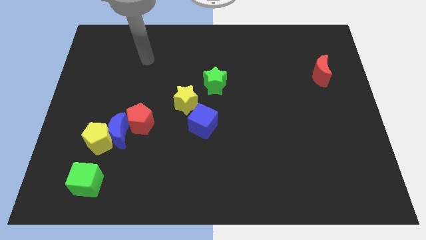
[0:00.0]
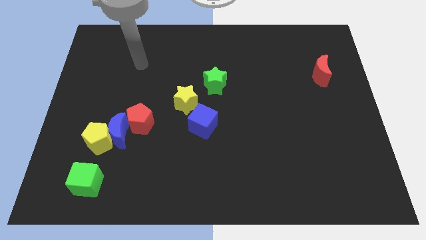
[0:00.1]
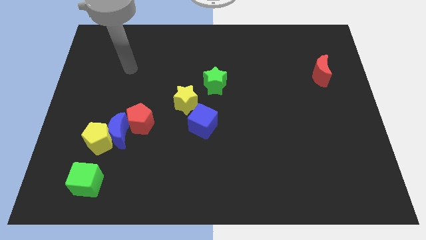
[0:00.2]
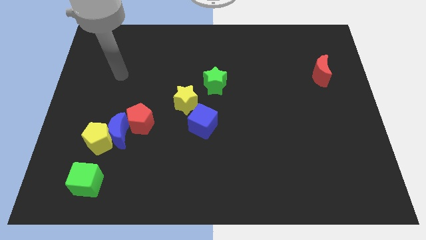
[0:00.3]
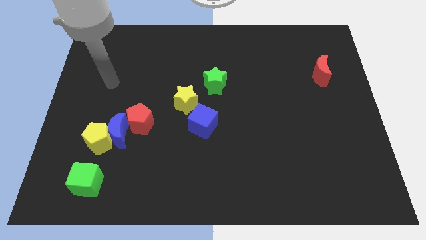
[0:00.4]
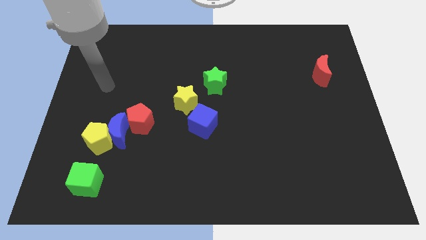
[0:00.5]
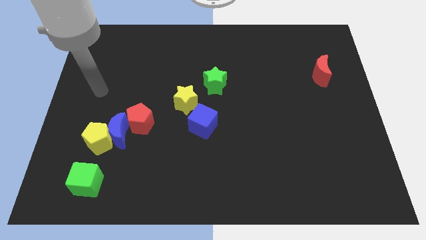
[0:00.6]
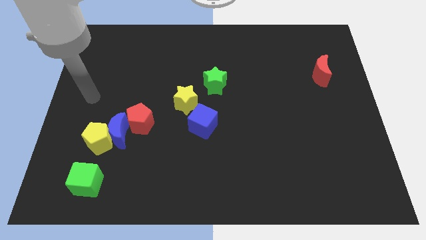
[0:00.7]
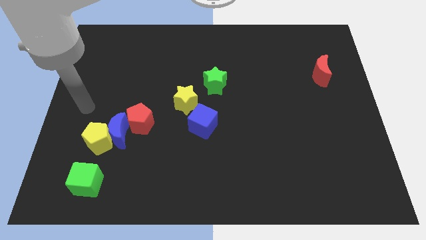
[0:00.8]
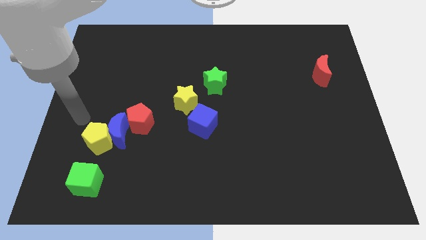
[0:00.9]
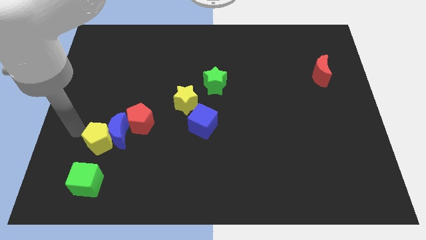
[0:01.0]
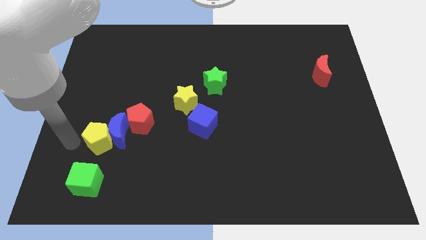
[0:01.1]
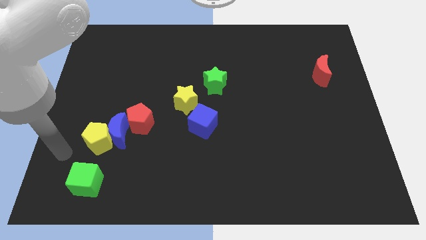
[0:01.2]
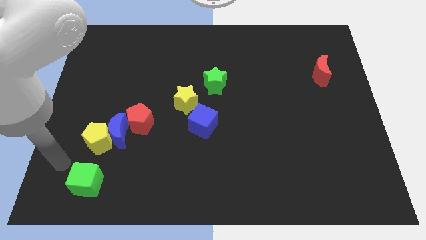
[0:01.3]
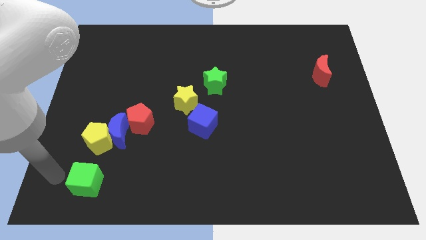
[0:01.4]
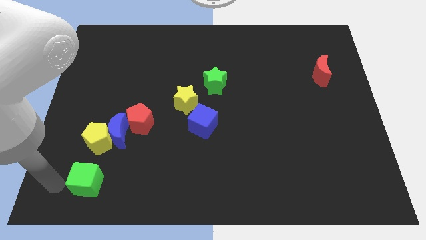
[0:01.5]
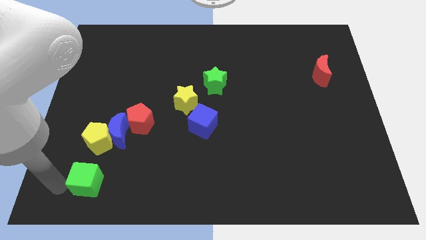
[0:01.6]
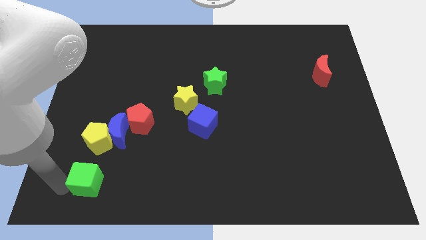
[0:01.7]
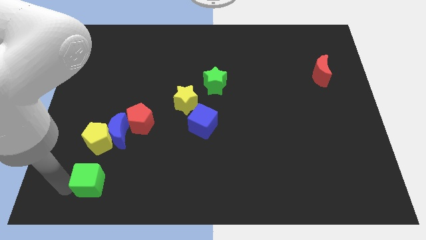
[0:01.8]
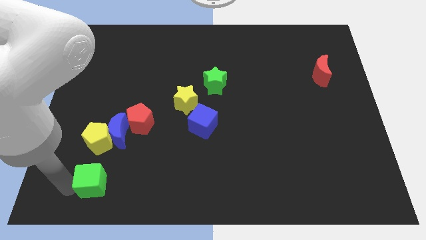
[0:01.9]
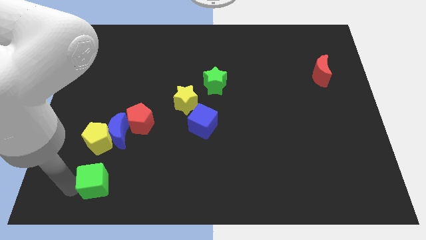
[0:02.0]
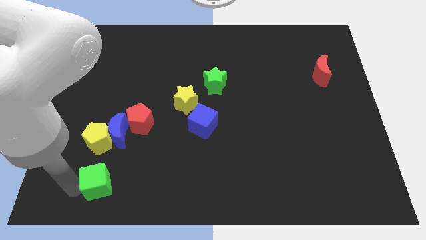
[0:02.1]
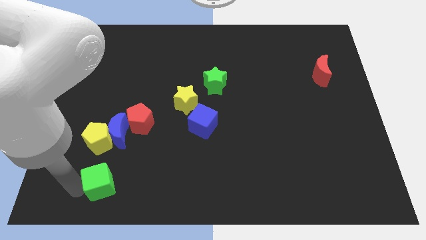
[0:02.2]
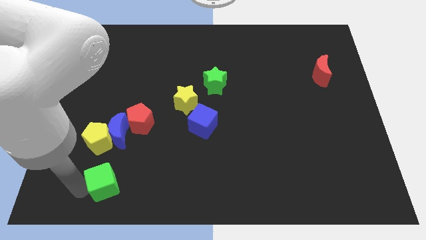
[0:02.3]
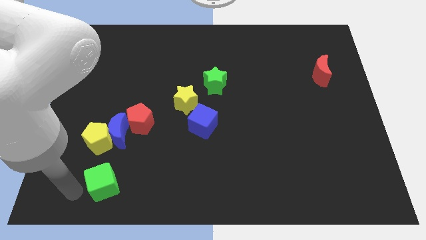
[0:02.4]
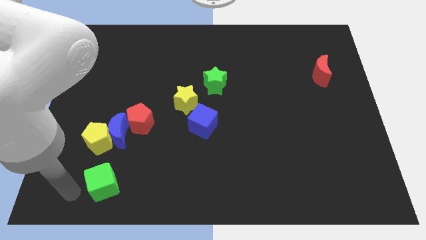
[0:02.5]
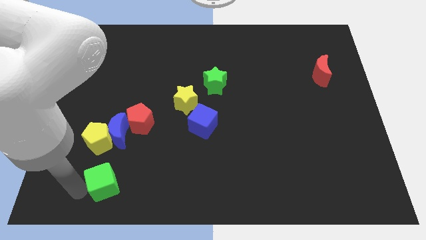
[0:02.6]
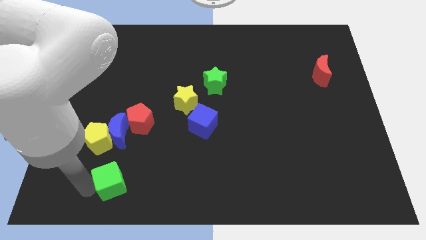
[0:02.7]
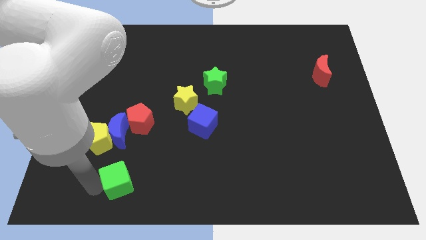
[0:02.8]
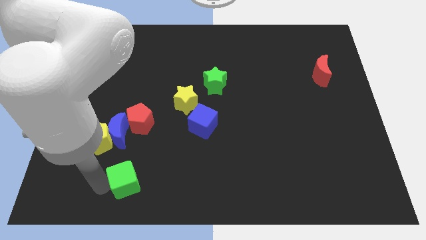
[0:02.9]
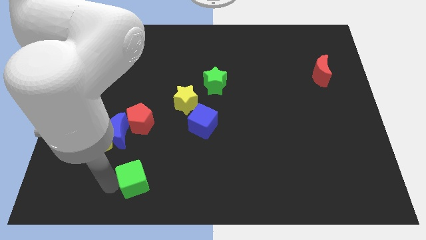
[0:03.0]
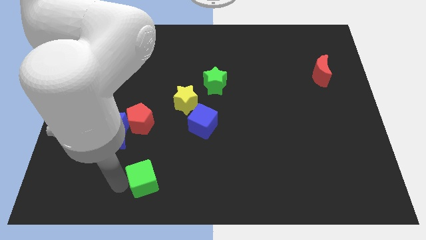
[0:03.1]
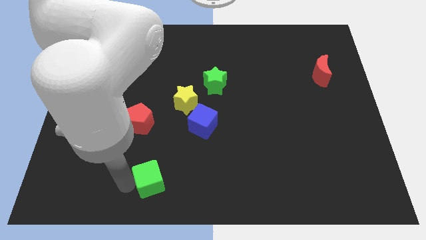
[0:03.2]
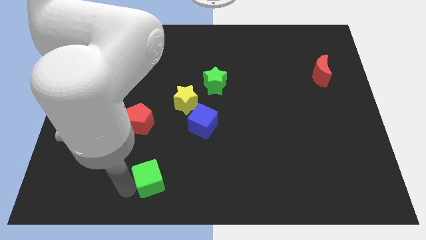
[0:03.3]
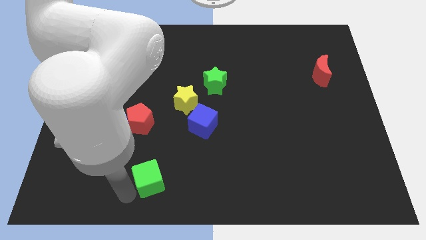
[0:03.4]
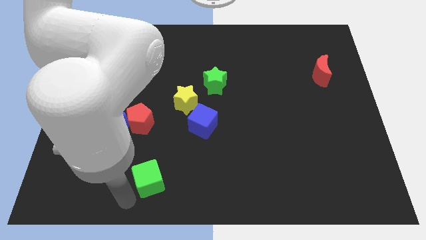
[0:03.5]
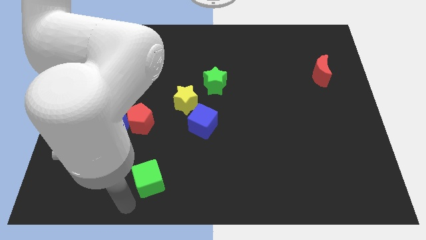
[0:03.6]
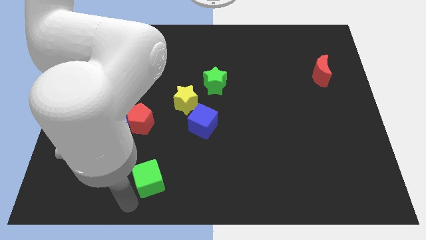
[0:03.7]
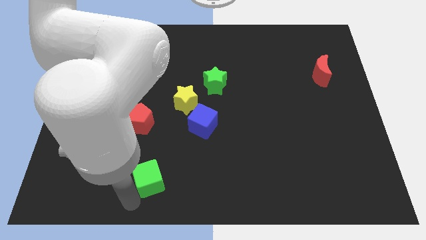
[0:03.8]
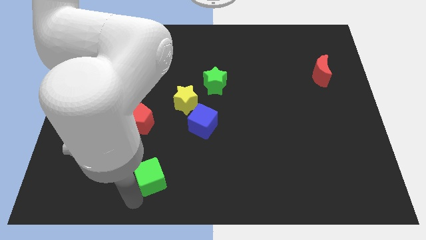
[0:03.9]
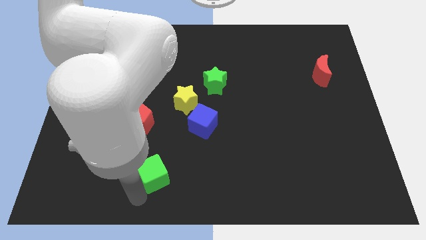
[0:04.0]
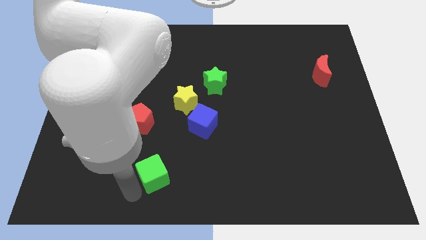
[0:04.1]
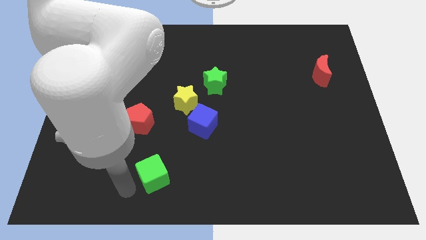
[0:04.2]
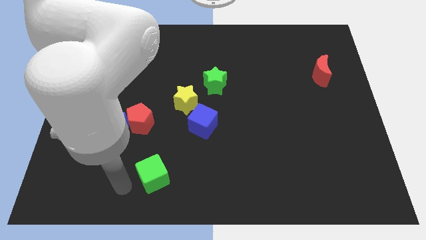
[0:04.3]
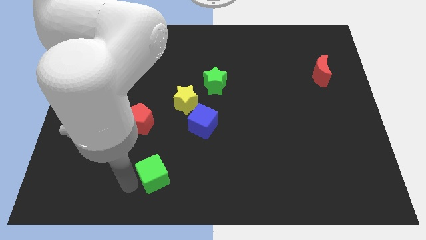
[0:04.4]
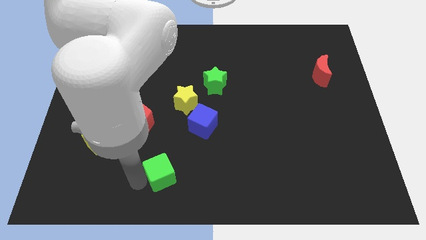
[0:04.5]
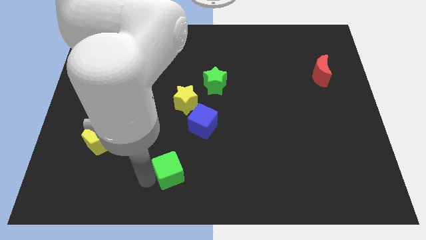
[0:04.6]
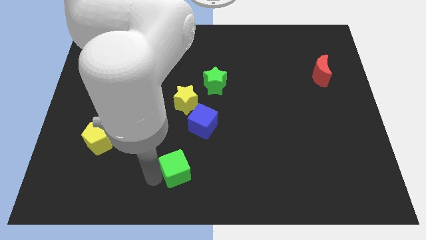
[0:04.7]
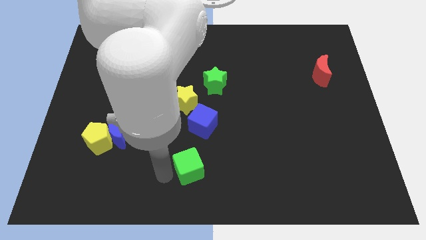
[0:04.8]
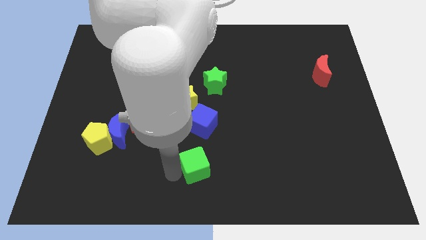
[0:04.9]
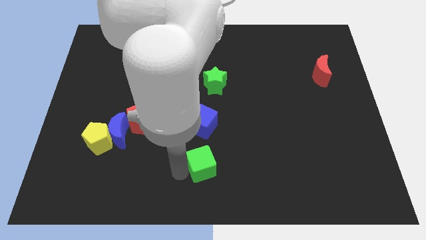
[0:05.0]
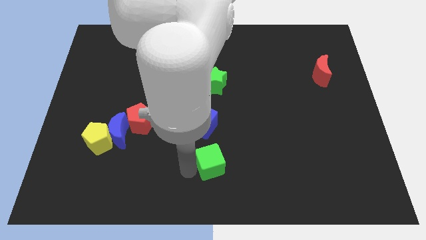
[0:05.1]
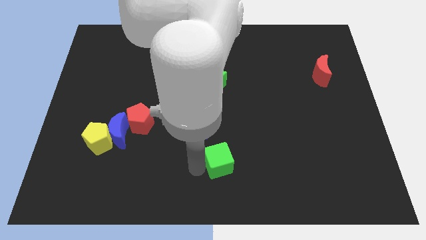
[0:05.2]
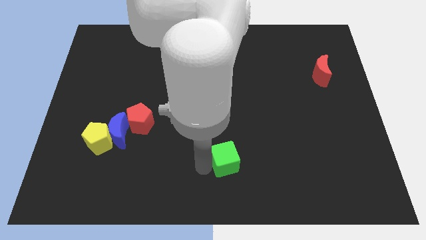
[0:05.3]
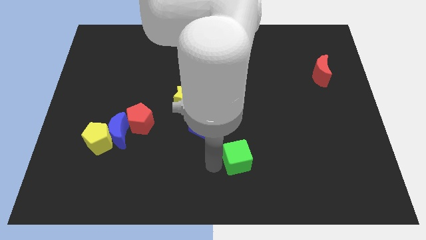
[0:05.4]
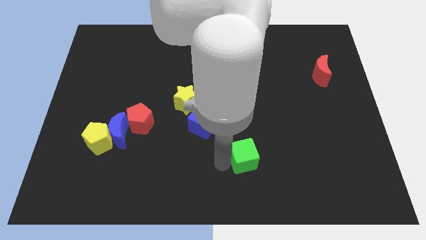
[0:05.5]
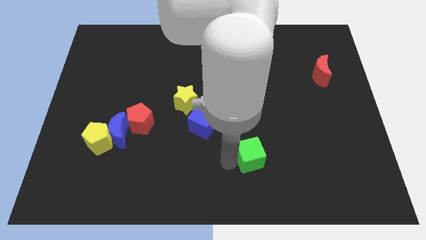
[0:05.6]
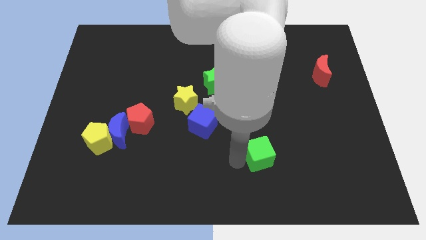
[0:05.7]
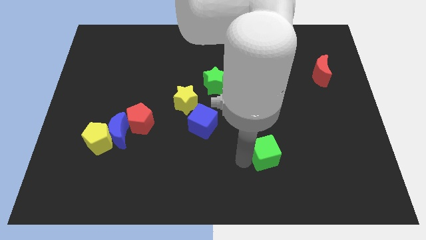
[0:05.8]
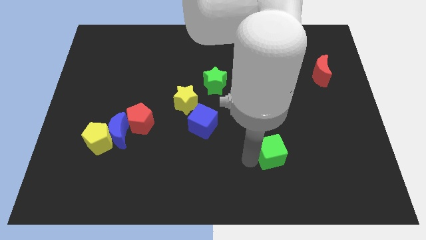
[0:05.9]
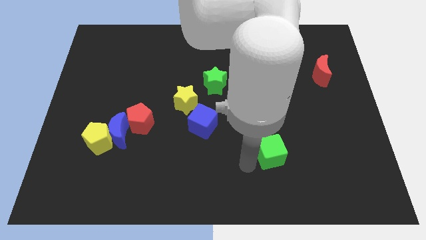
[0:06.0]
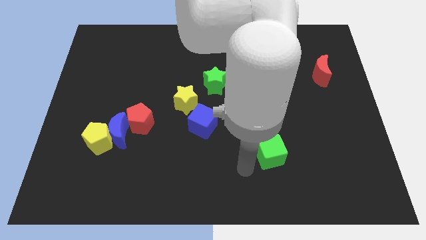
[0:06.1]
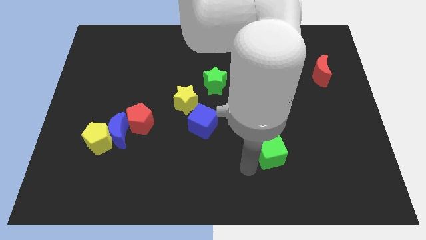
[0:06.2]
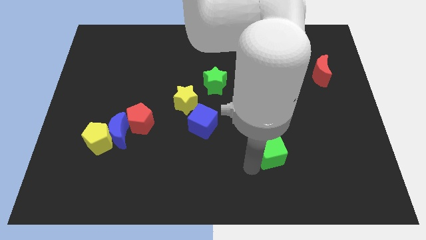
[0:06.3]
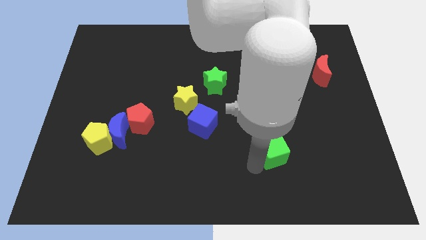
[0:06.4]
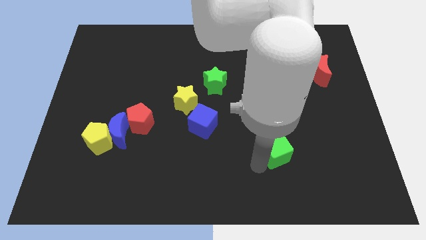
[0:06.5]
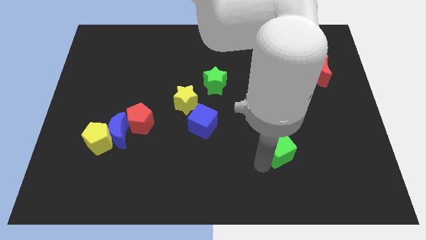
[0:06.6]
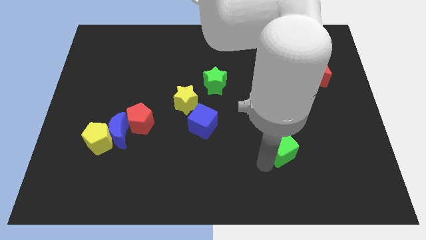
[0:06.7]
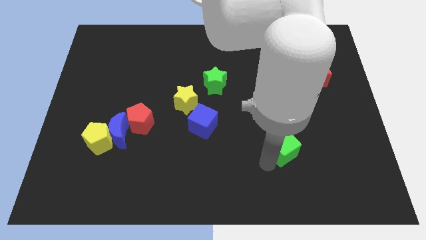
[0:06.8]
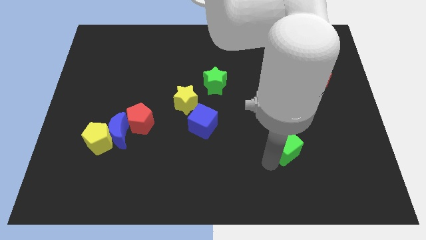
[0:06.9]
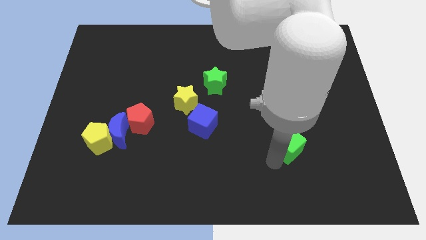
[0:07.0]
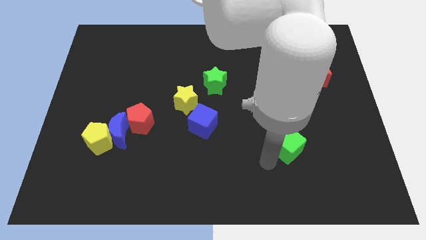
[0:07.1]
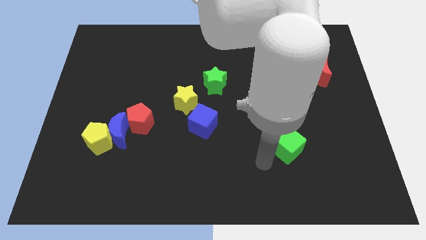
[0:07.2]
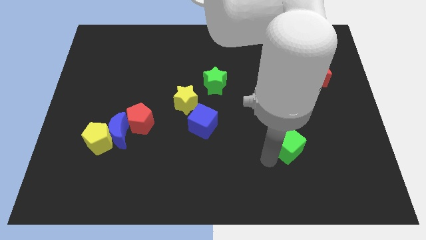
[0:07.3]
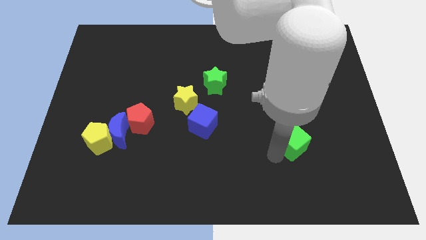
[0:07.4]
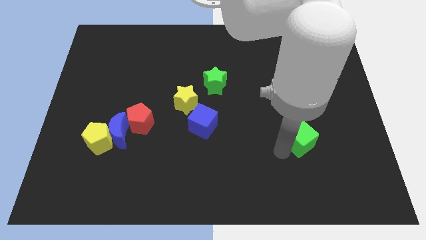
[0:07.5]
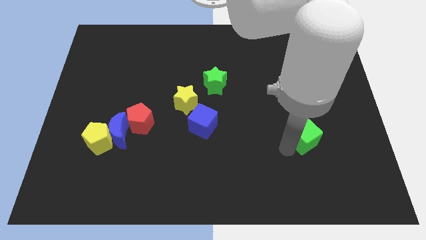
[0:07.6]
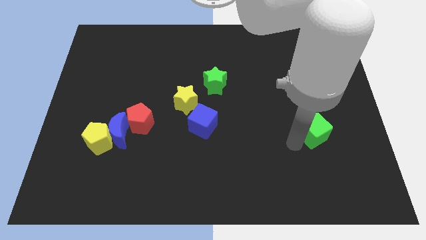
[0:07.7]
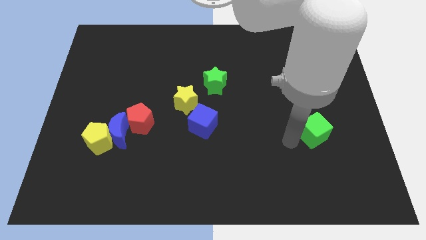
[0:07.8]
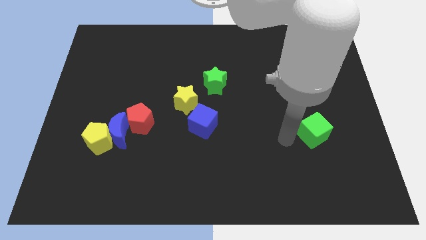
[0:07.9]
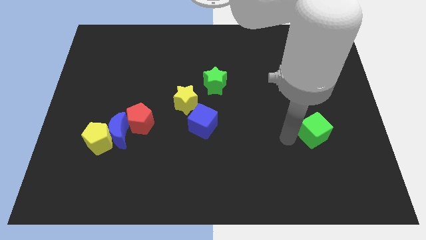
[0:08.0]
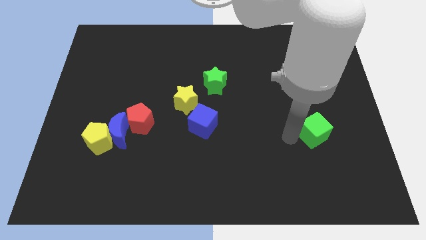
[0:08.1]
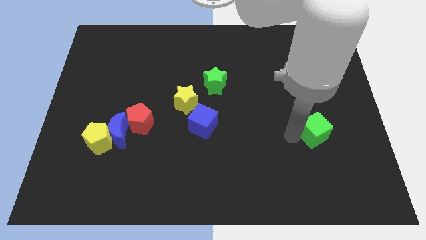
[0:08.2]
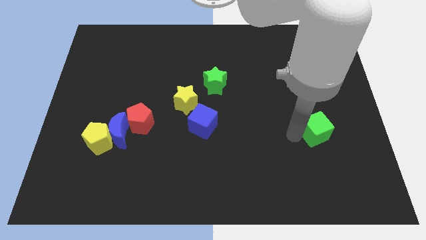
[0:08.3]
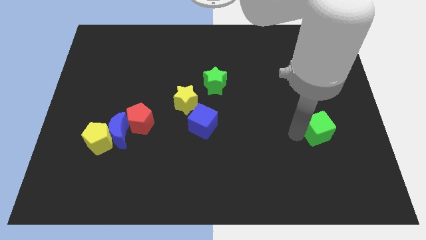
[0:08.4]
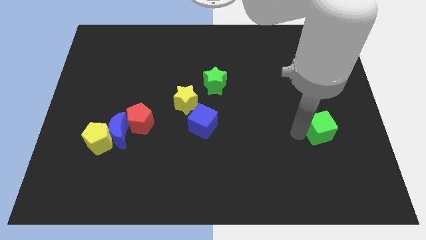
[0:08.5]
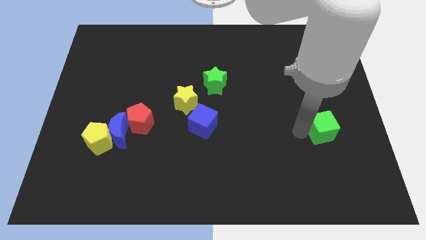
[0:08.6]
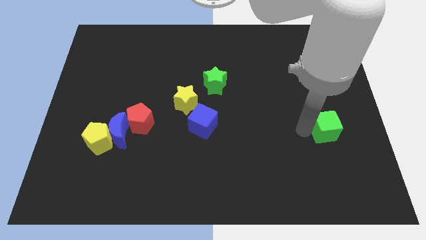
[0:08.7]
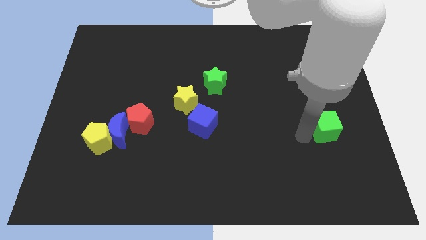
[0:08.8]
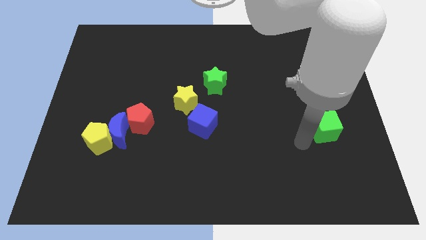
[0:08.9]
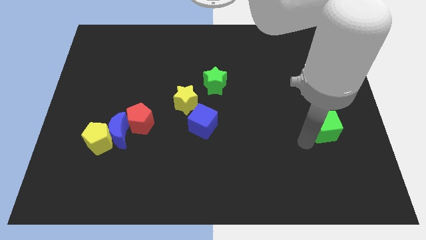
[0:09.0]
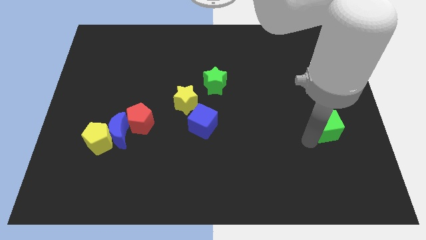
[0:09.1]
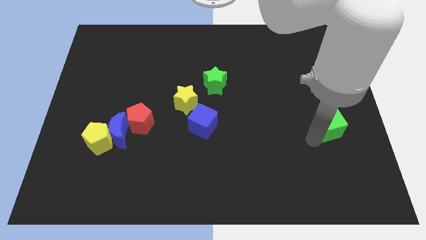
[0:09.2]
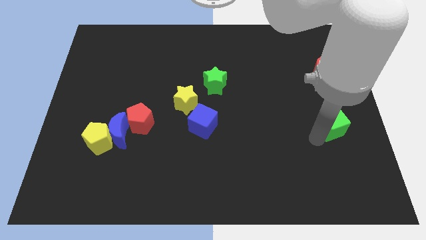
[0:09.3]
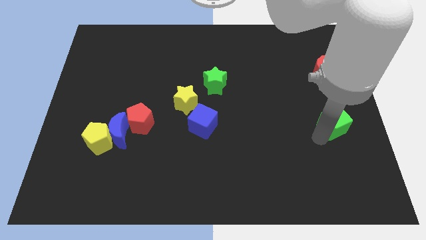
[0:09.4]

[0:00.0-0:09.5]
put the green cube to the center right
